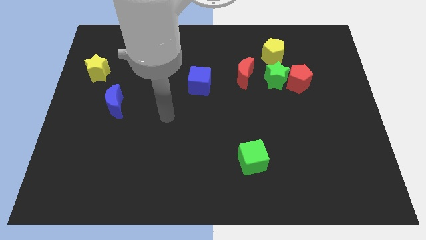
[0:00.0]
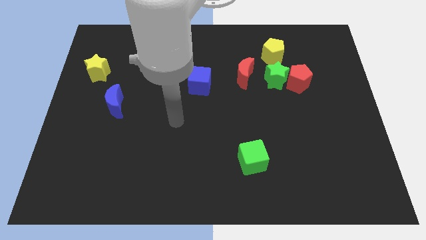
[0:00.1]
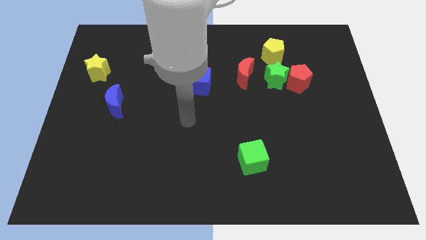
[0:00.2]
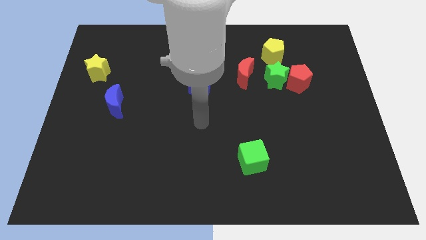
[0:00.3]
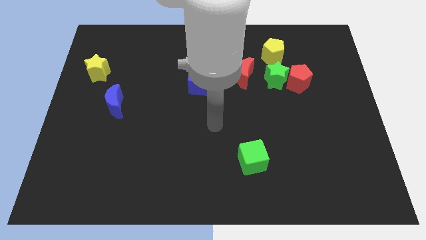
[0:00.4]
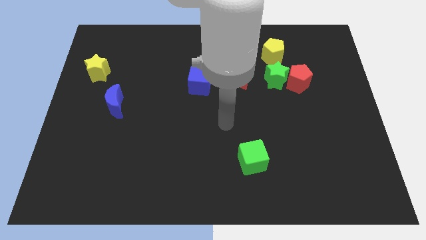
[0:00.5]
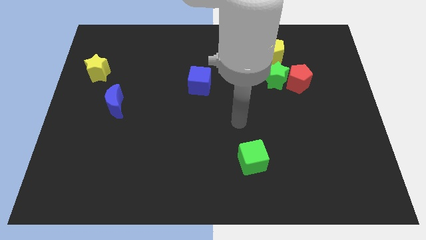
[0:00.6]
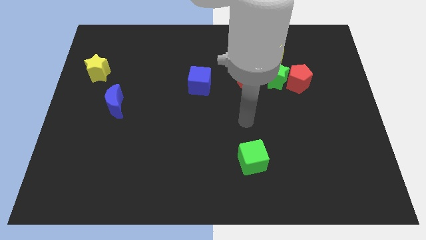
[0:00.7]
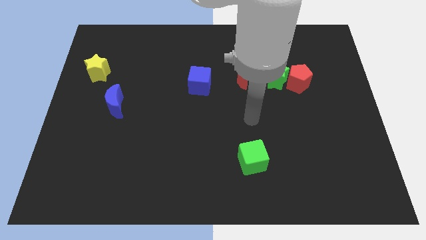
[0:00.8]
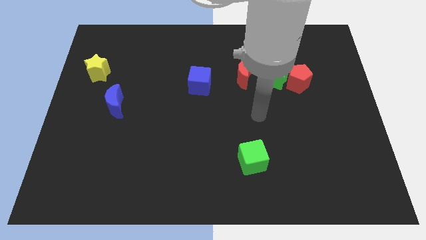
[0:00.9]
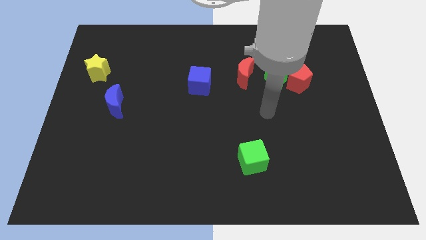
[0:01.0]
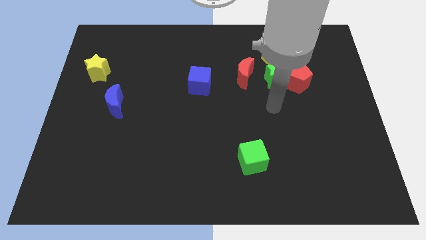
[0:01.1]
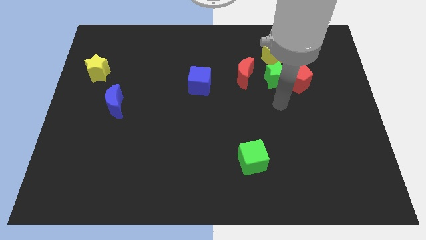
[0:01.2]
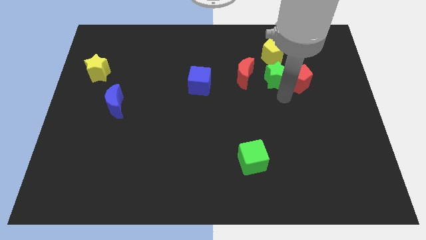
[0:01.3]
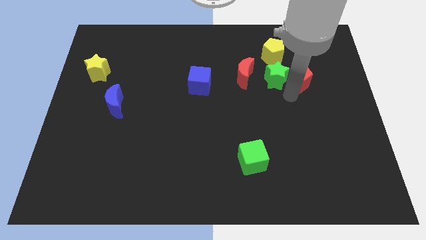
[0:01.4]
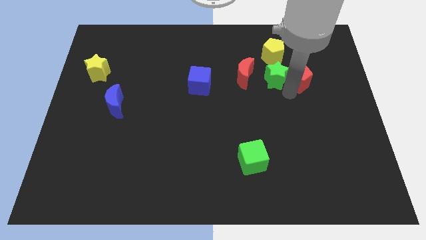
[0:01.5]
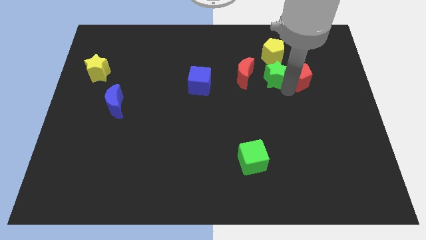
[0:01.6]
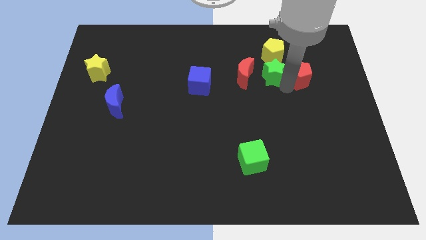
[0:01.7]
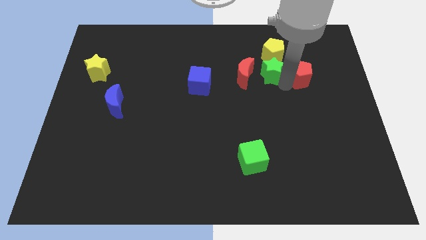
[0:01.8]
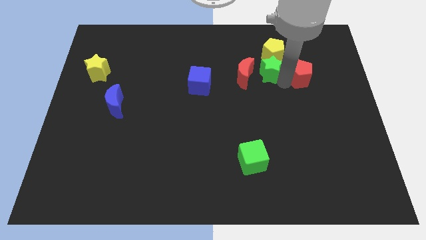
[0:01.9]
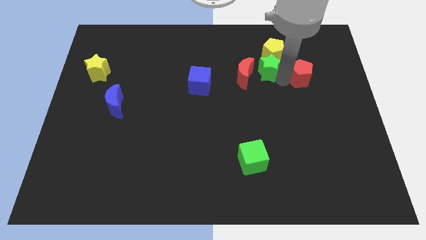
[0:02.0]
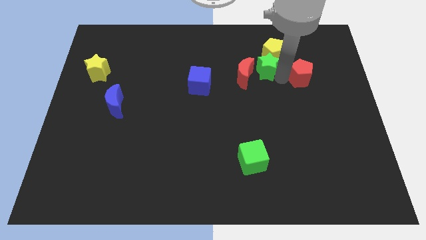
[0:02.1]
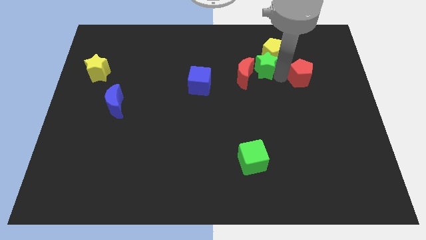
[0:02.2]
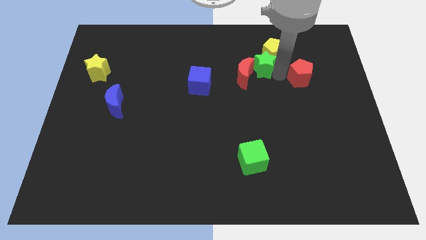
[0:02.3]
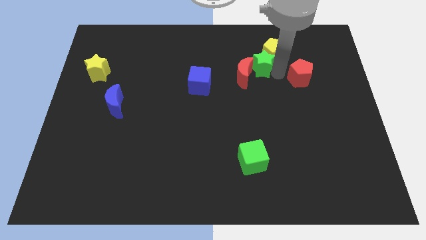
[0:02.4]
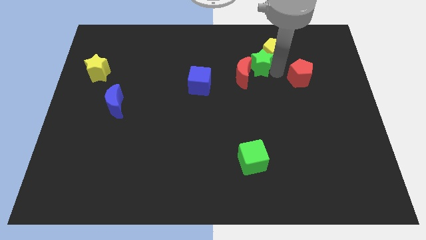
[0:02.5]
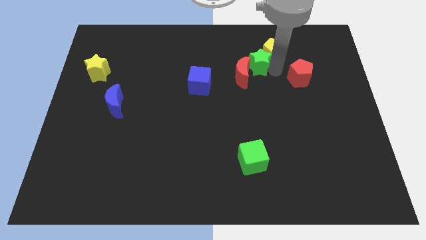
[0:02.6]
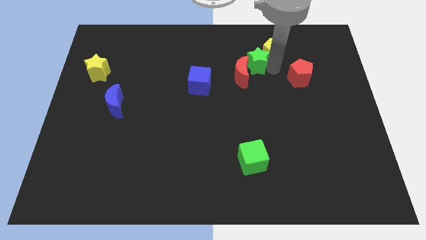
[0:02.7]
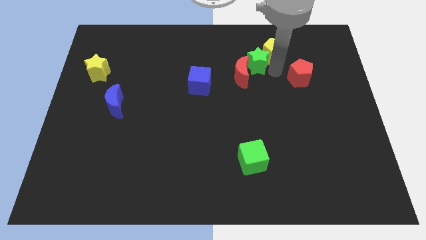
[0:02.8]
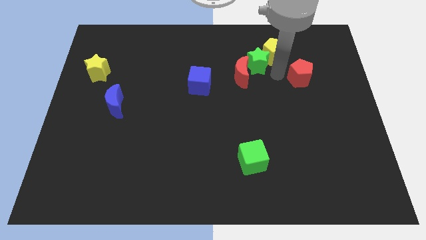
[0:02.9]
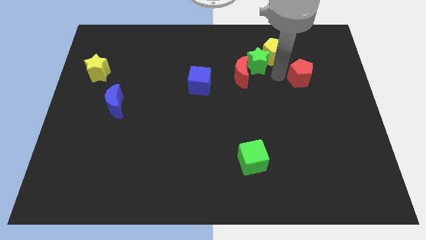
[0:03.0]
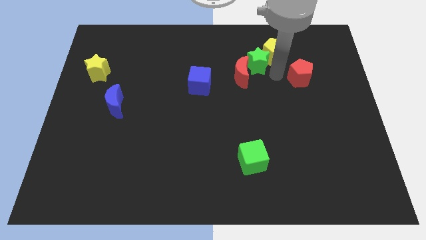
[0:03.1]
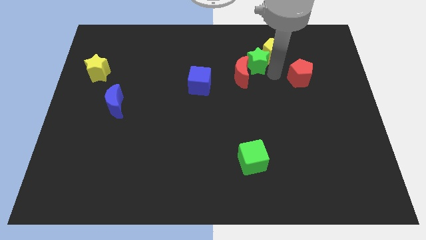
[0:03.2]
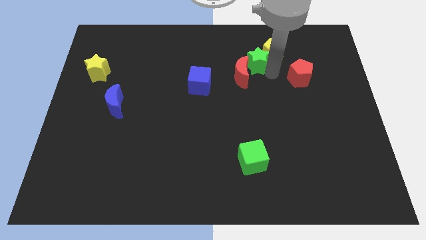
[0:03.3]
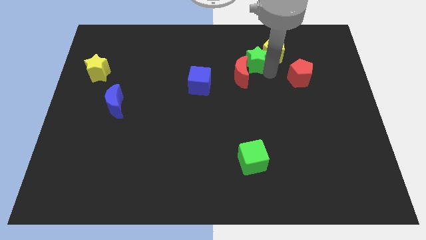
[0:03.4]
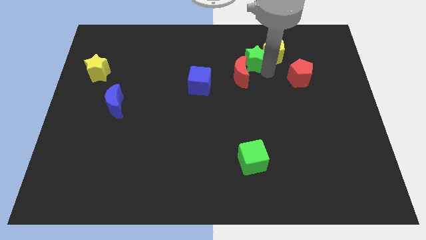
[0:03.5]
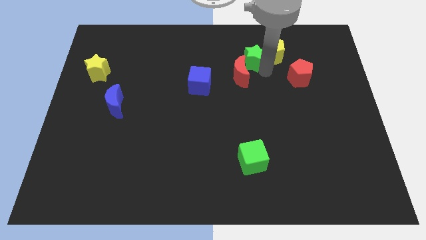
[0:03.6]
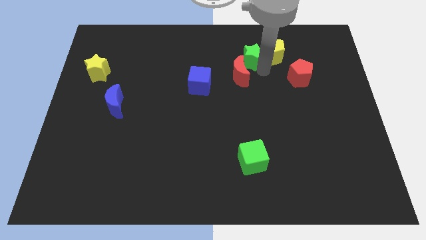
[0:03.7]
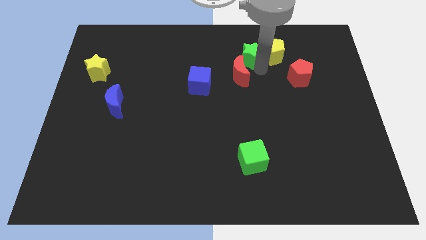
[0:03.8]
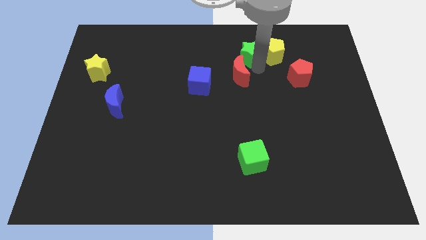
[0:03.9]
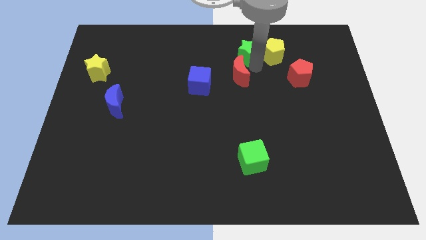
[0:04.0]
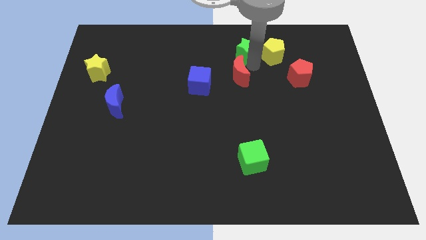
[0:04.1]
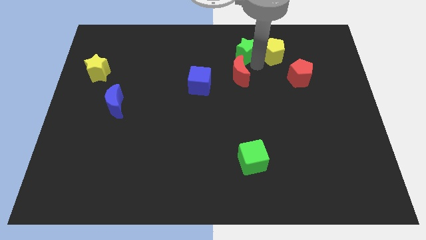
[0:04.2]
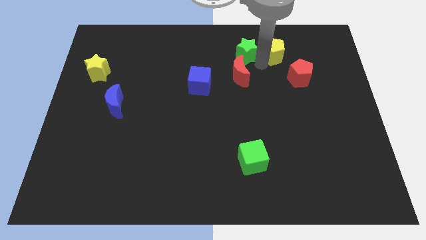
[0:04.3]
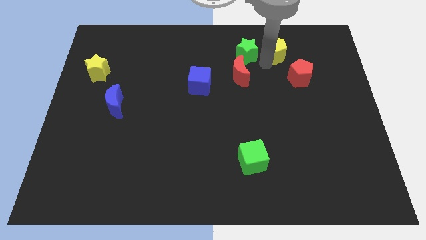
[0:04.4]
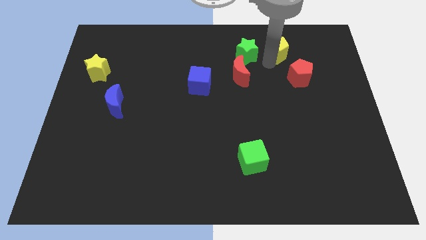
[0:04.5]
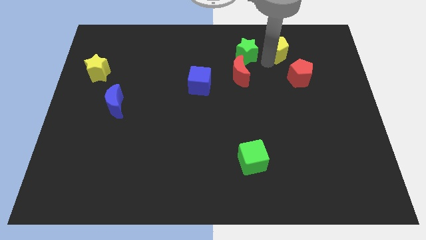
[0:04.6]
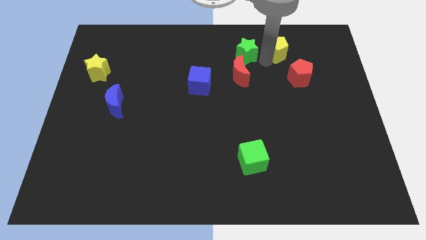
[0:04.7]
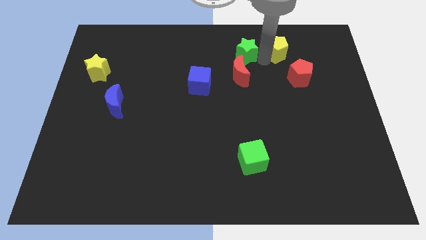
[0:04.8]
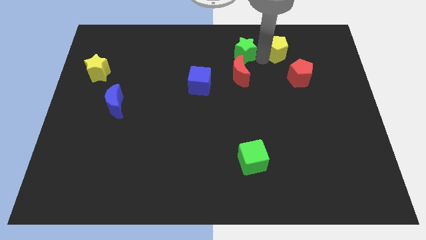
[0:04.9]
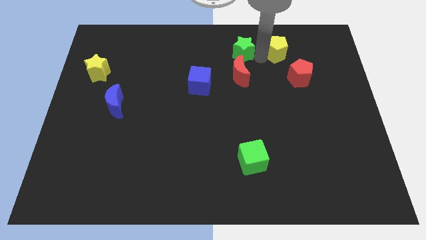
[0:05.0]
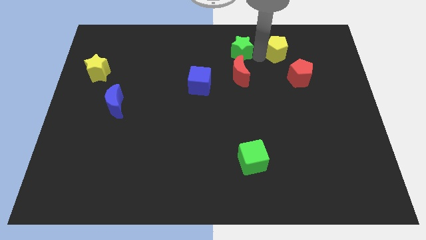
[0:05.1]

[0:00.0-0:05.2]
put the green star to the top side
